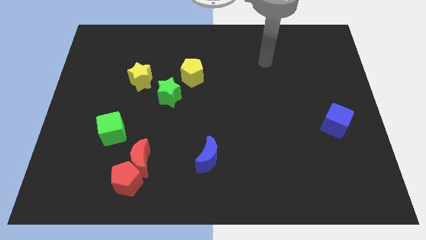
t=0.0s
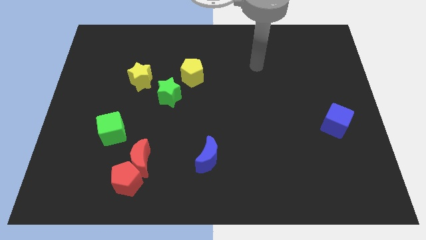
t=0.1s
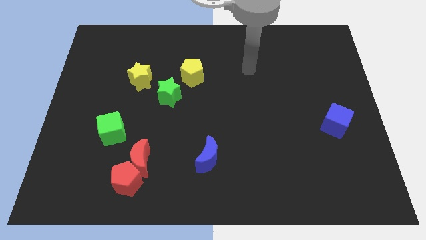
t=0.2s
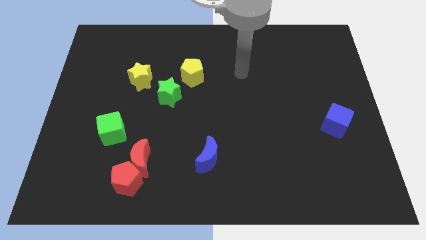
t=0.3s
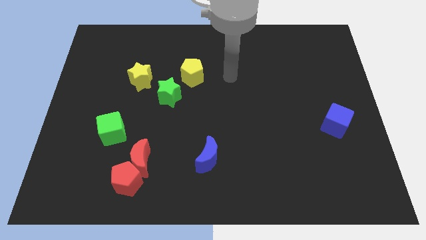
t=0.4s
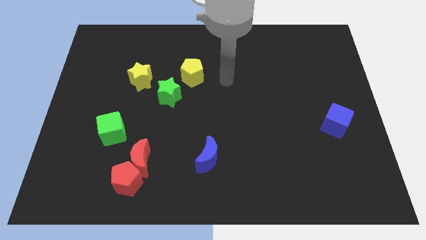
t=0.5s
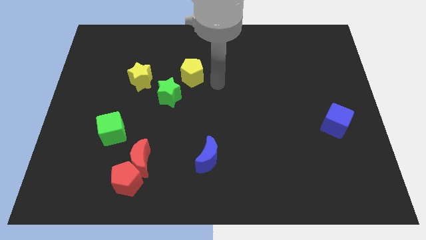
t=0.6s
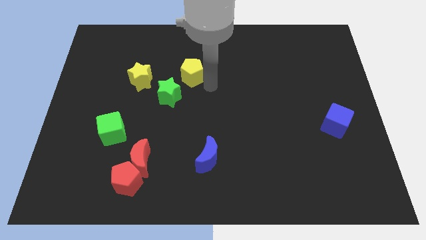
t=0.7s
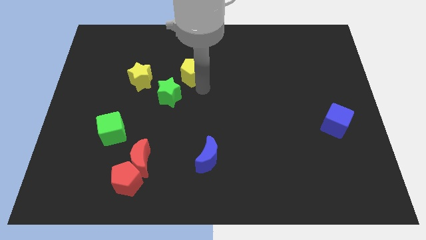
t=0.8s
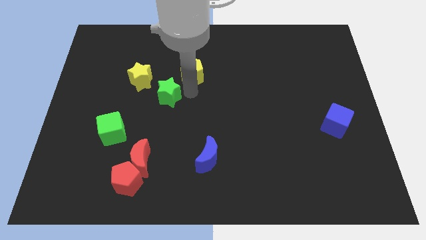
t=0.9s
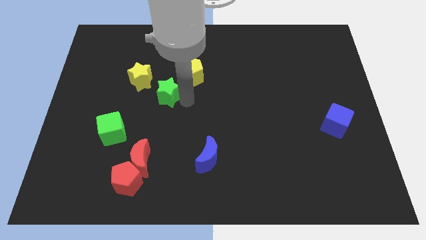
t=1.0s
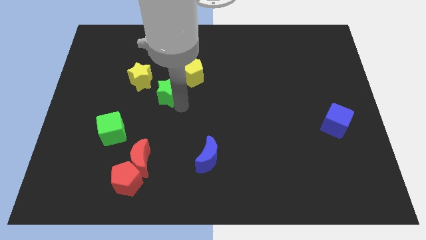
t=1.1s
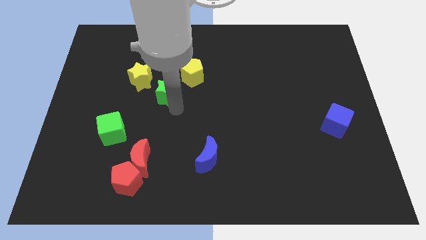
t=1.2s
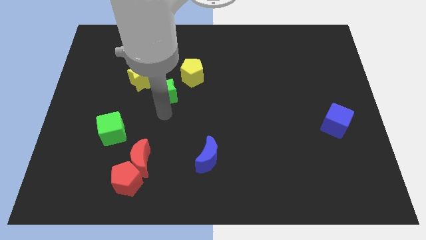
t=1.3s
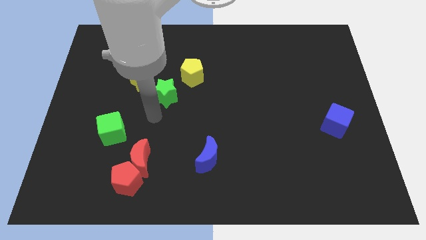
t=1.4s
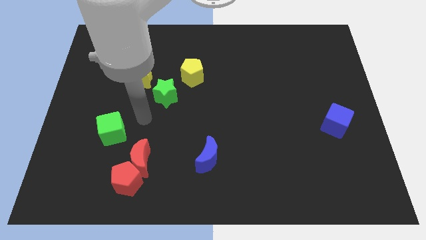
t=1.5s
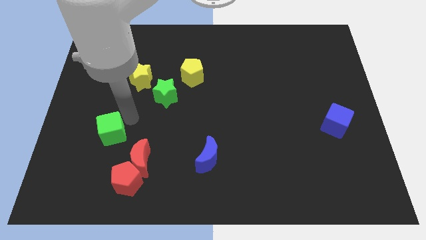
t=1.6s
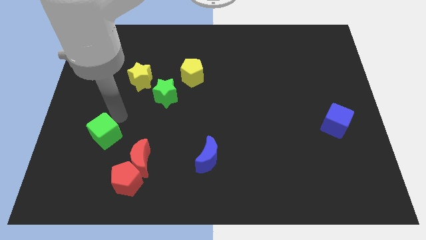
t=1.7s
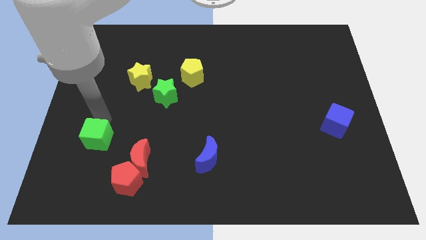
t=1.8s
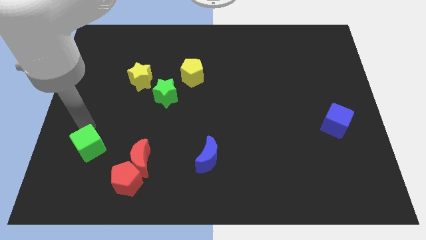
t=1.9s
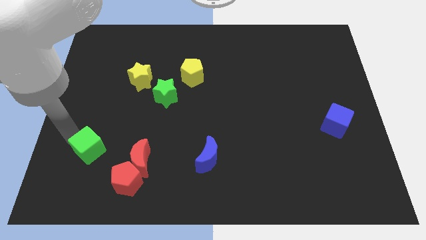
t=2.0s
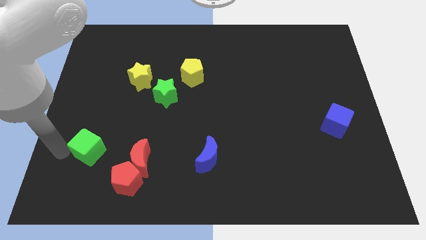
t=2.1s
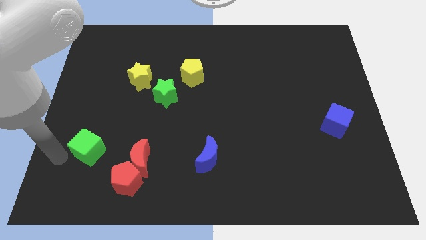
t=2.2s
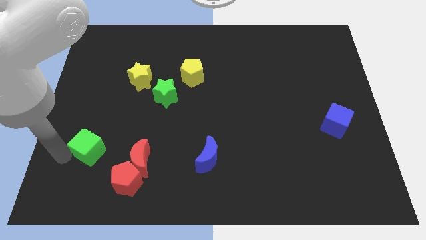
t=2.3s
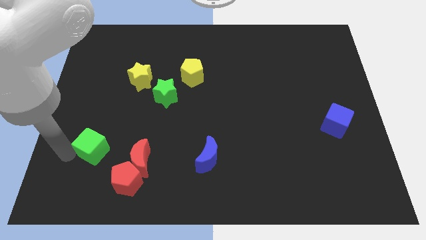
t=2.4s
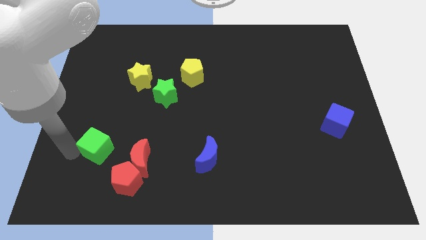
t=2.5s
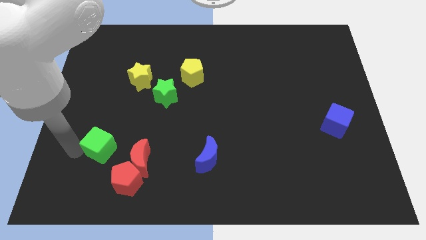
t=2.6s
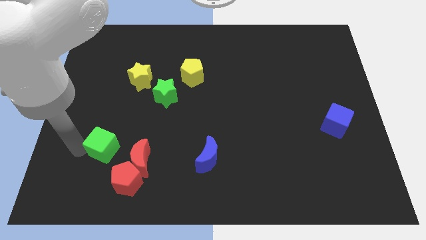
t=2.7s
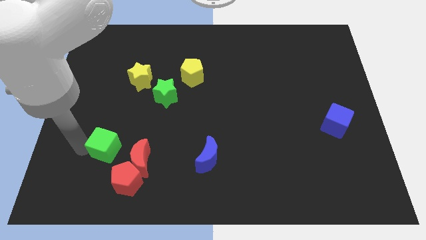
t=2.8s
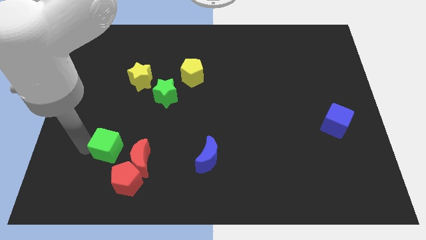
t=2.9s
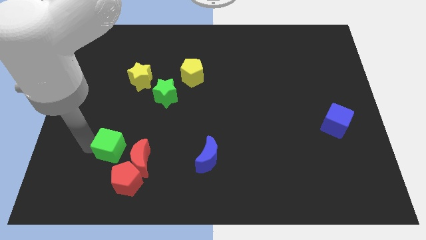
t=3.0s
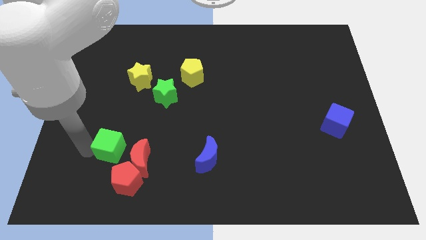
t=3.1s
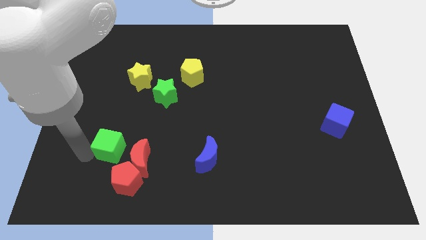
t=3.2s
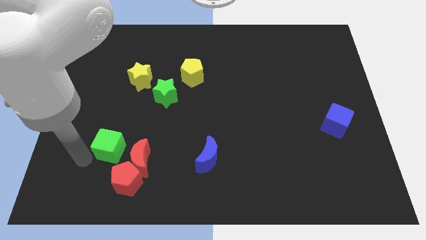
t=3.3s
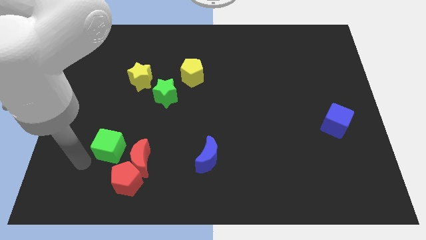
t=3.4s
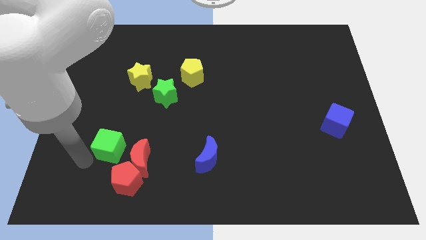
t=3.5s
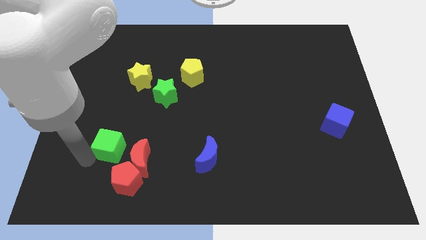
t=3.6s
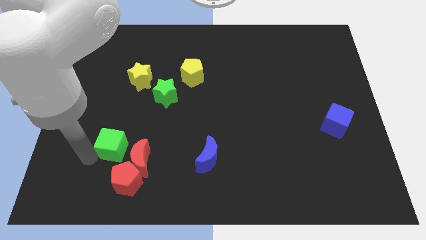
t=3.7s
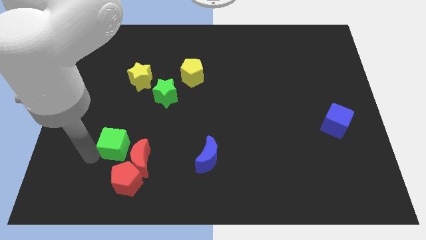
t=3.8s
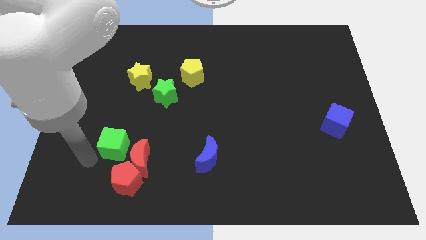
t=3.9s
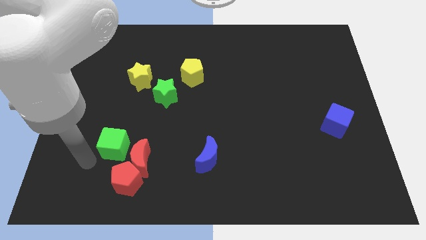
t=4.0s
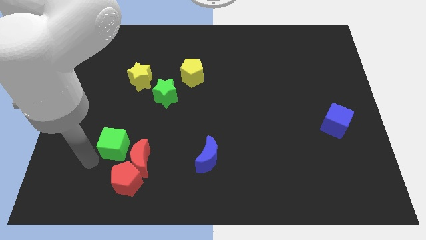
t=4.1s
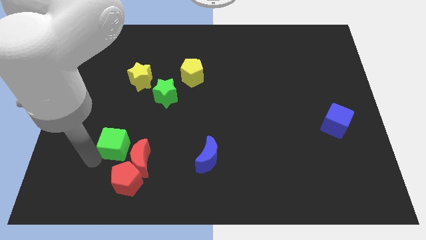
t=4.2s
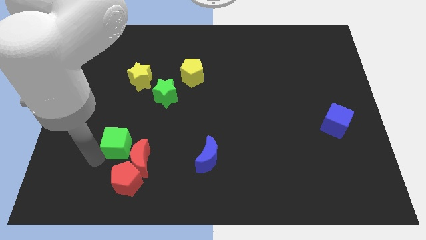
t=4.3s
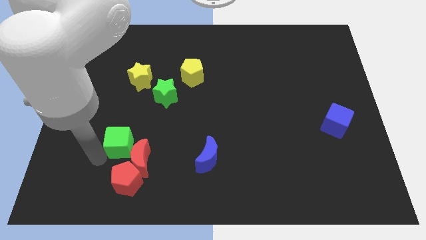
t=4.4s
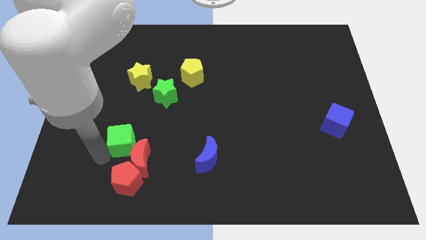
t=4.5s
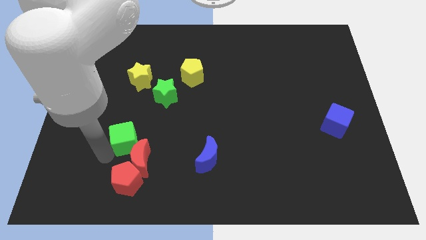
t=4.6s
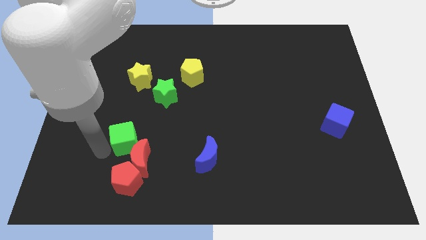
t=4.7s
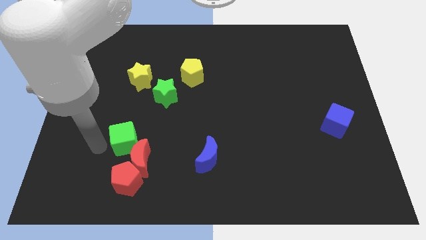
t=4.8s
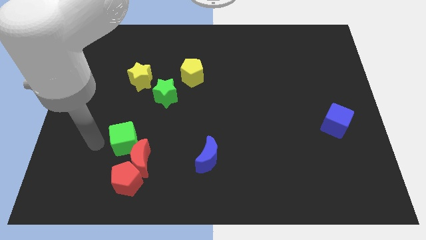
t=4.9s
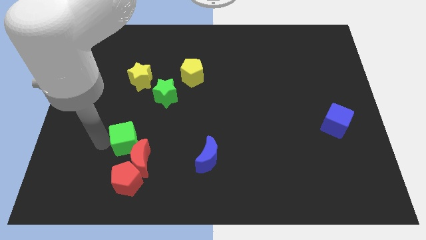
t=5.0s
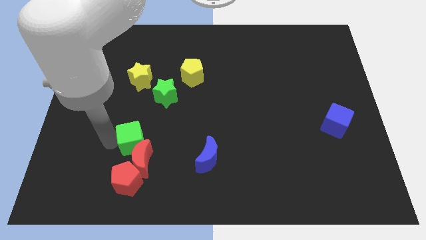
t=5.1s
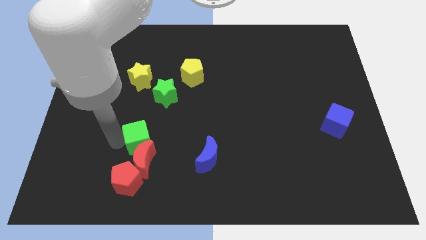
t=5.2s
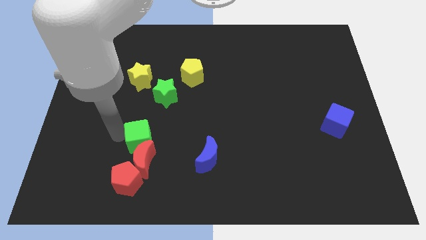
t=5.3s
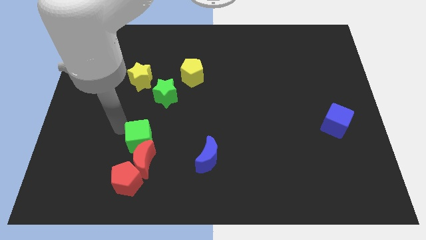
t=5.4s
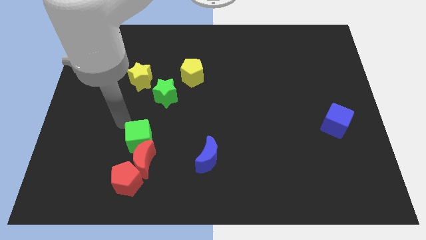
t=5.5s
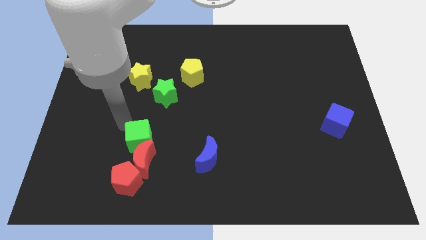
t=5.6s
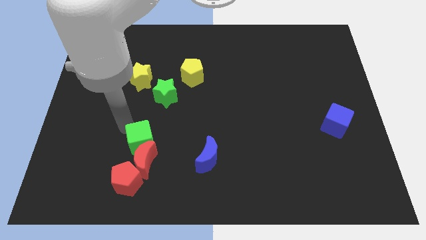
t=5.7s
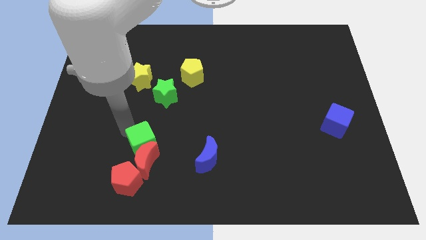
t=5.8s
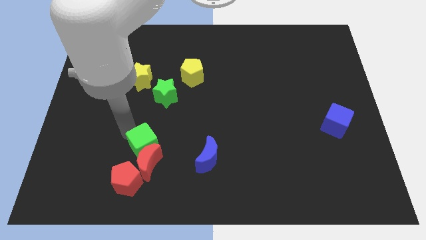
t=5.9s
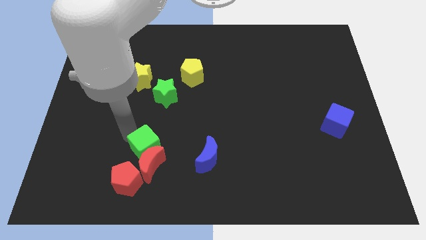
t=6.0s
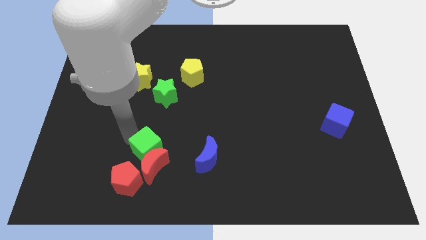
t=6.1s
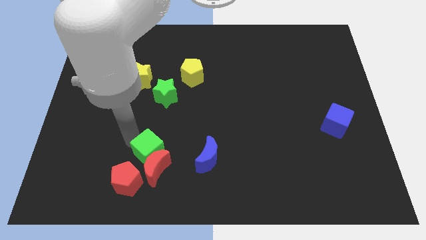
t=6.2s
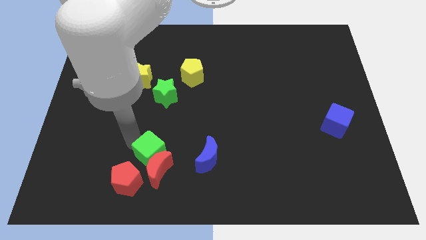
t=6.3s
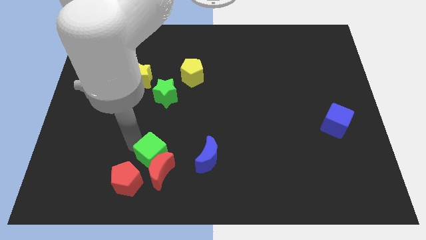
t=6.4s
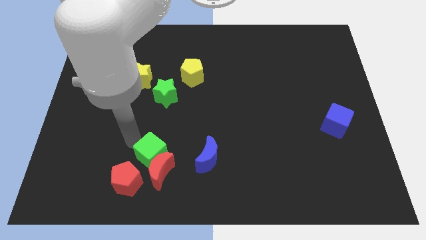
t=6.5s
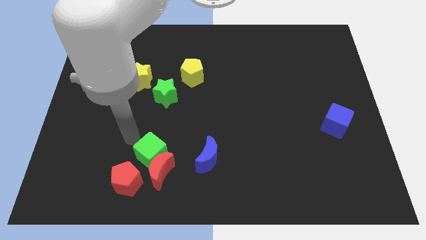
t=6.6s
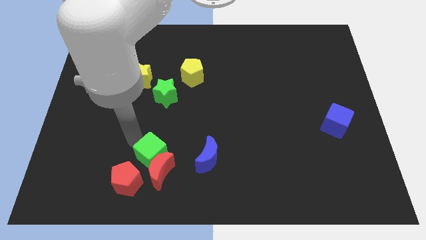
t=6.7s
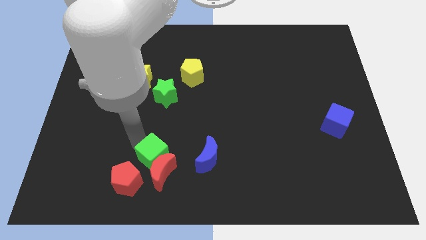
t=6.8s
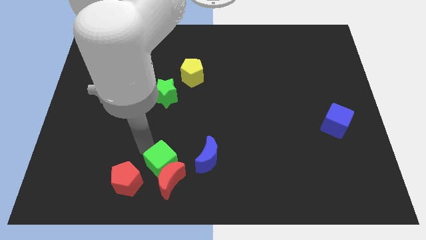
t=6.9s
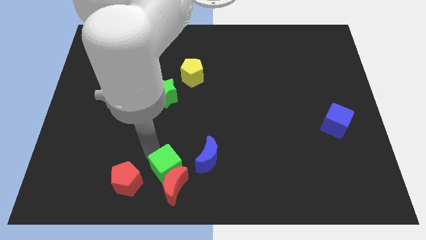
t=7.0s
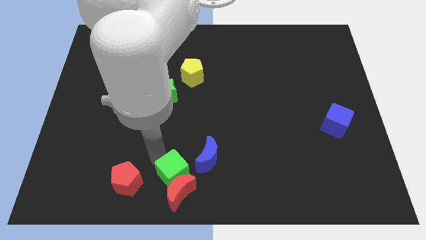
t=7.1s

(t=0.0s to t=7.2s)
push the green cube to the bottom side
